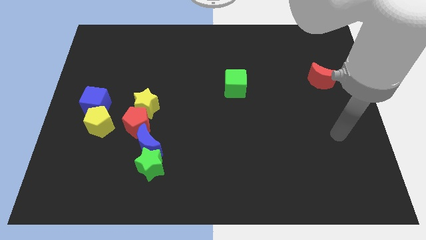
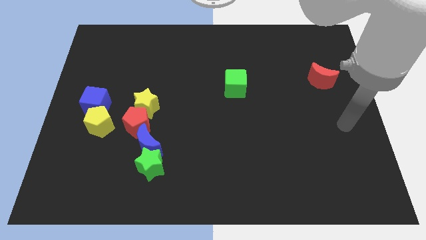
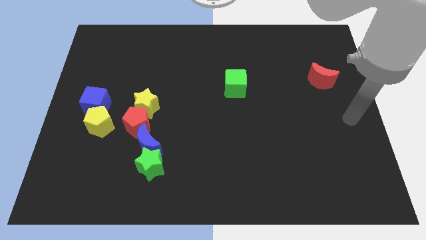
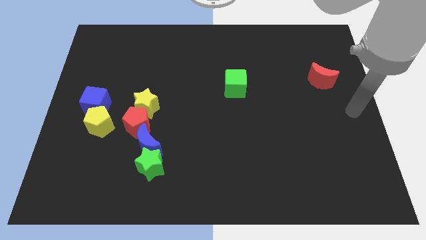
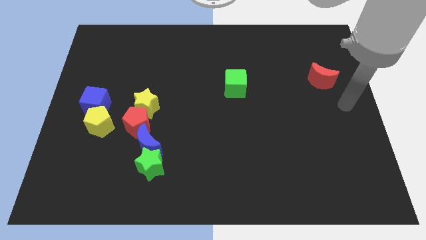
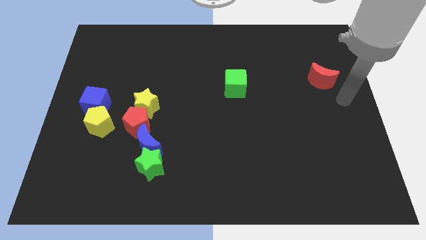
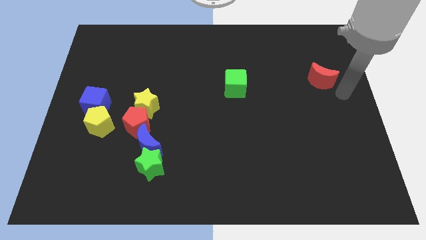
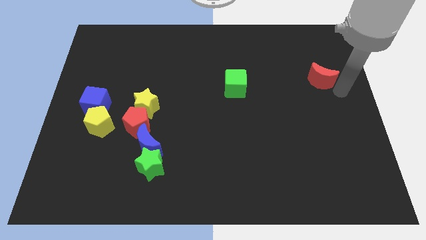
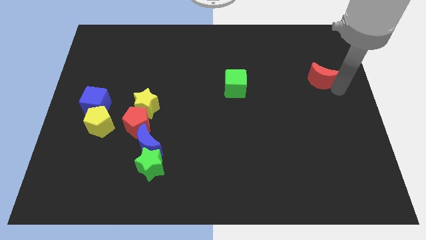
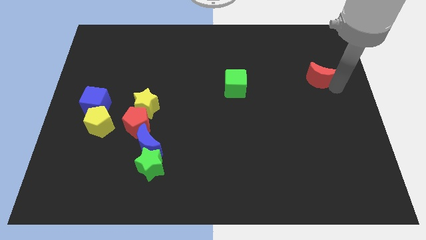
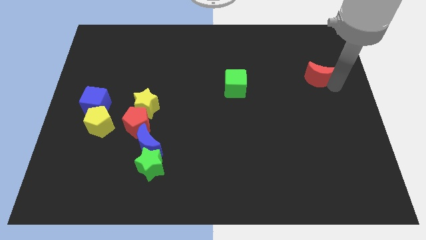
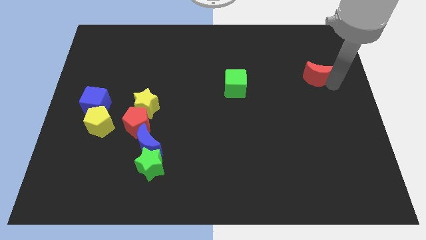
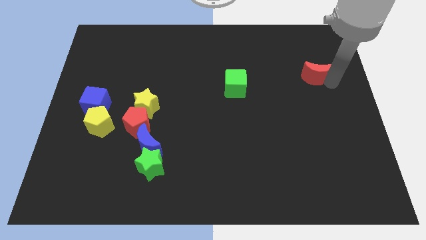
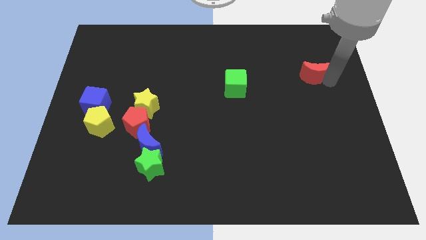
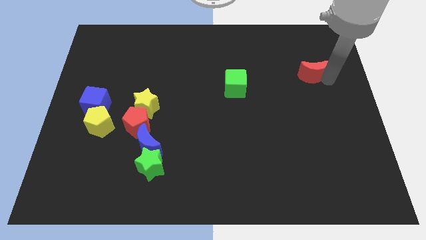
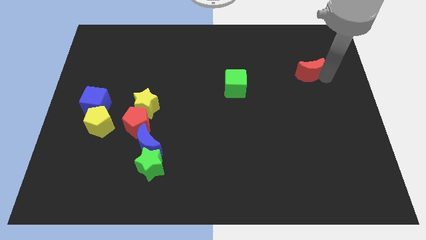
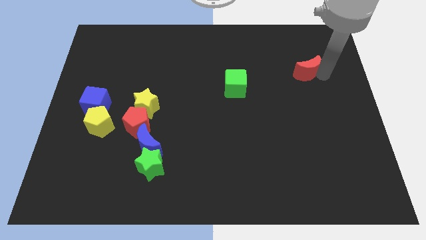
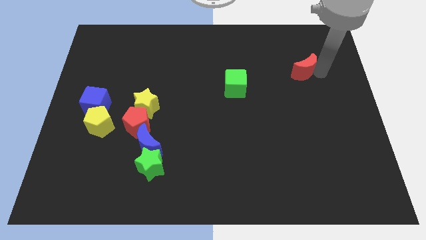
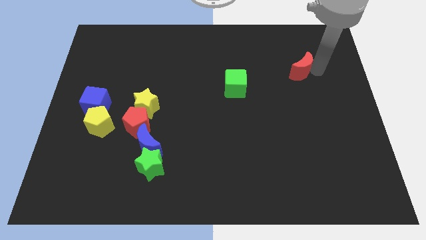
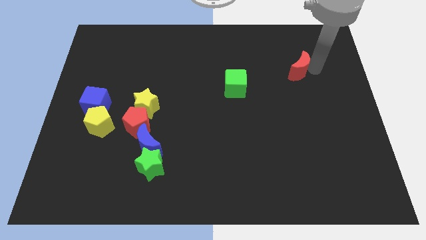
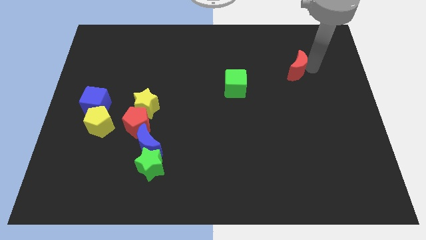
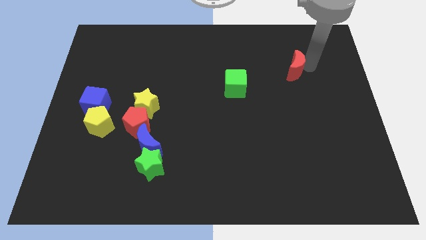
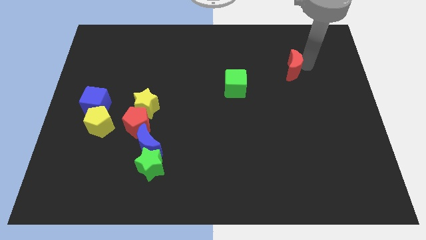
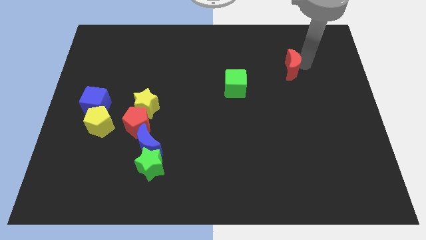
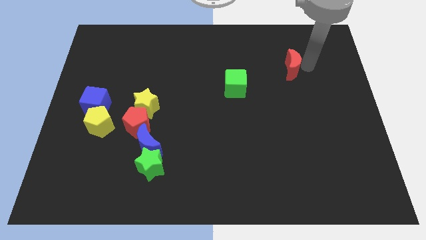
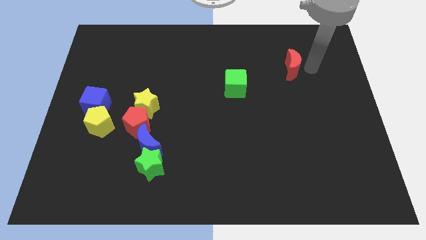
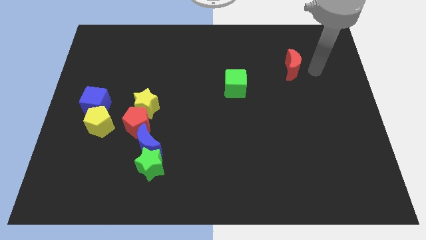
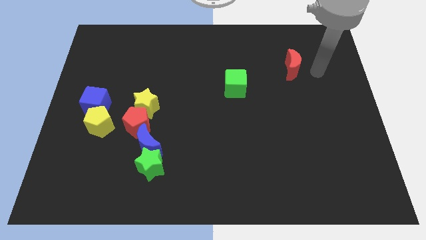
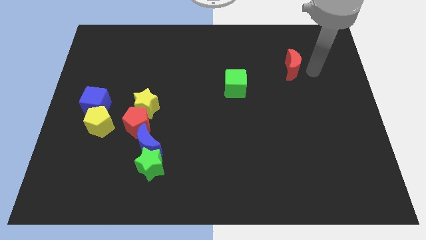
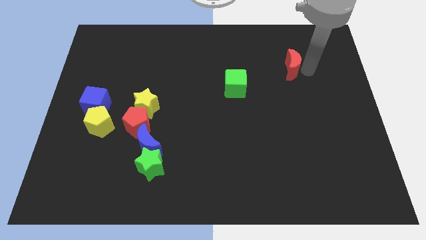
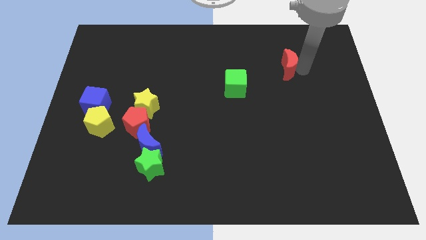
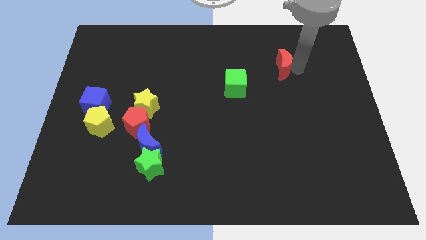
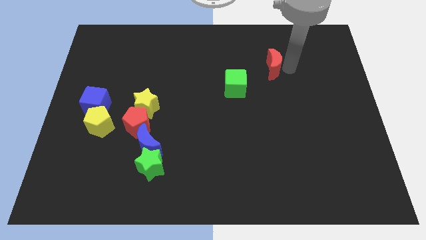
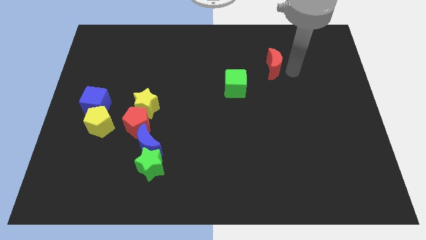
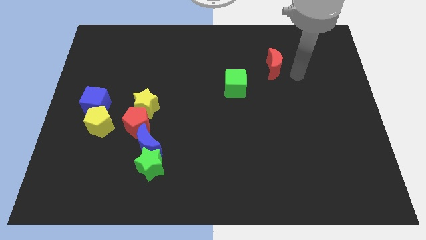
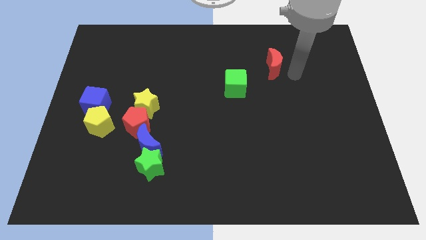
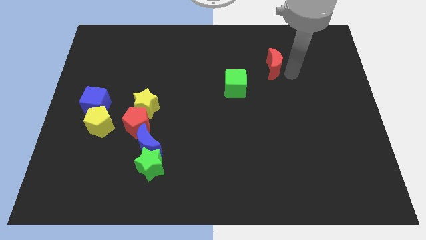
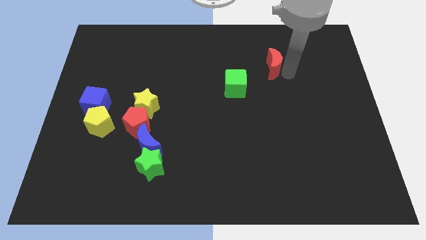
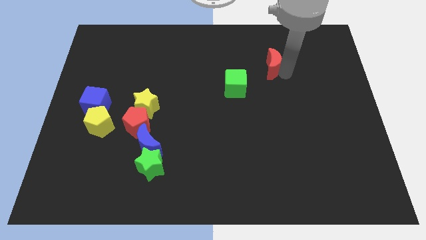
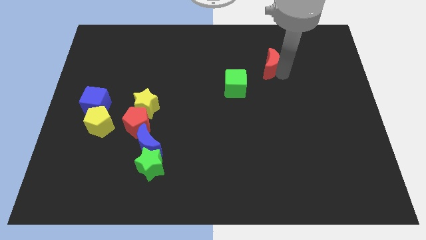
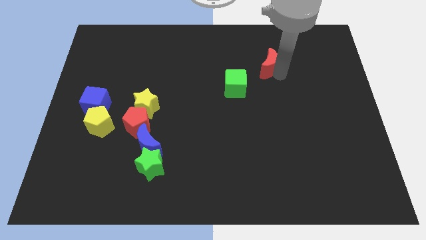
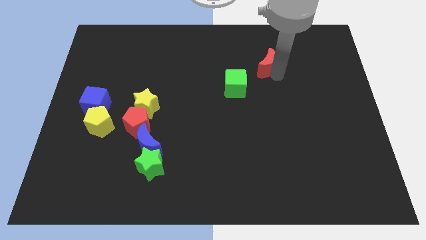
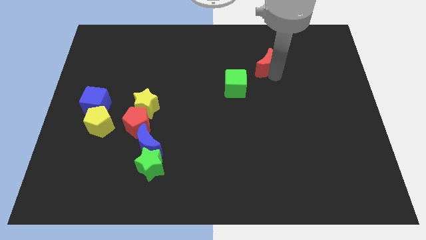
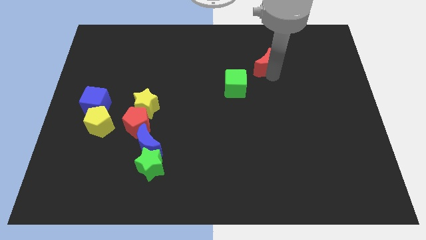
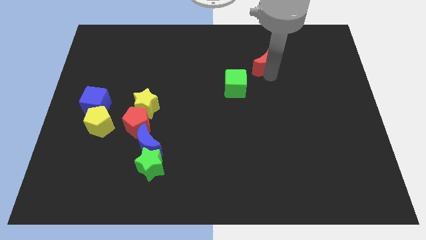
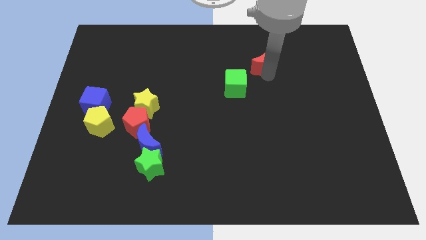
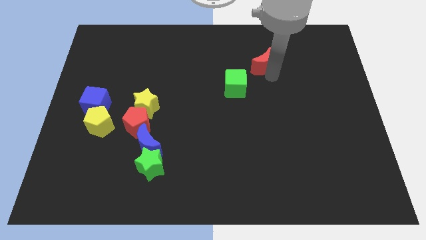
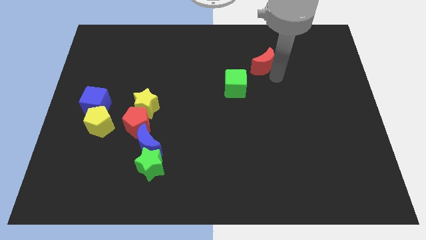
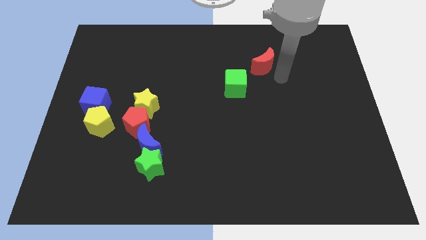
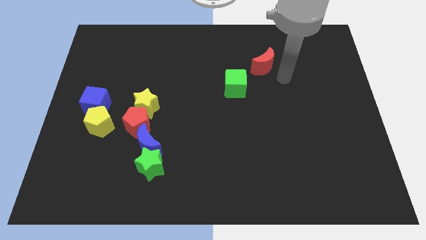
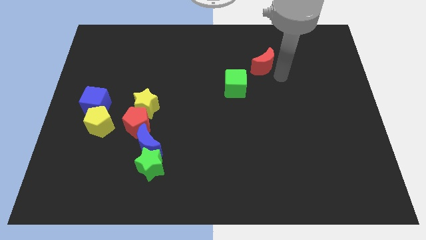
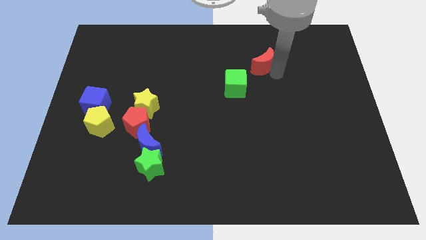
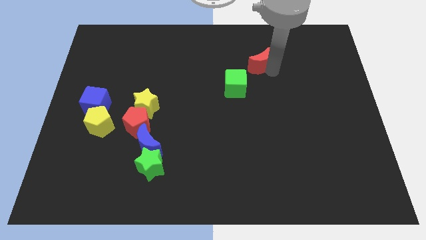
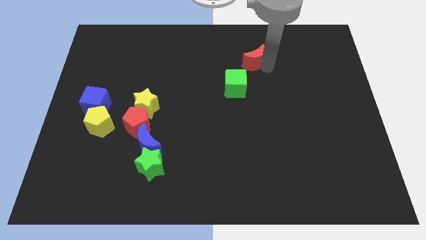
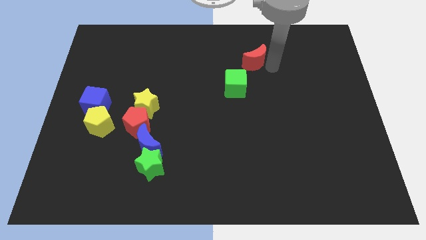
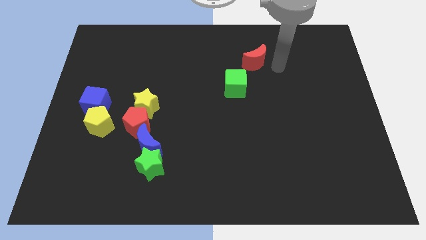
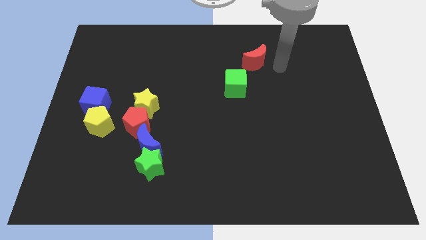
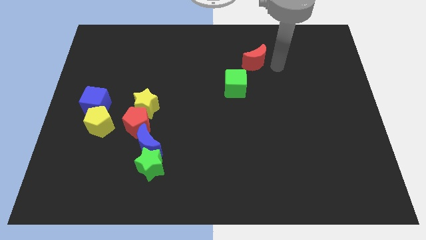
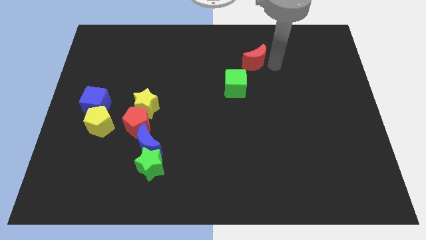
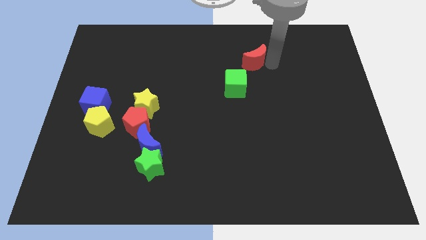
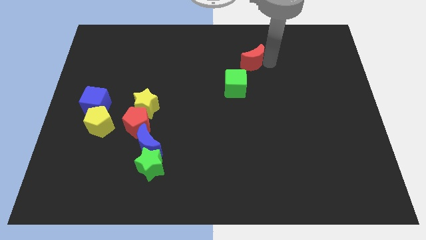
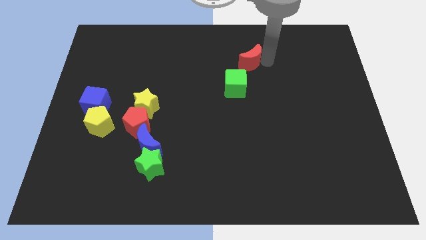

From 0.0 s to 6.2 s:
slide the red moon to the top of the green cube
